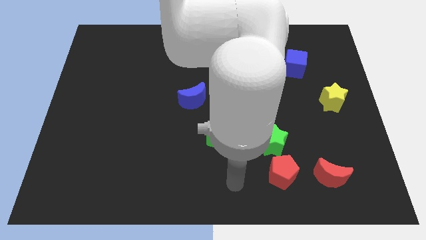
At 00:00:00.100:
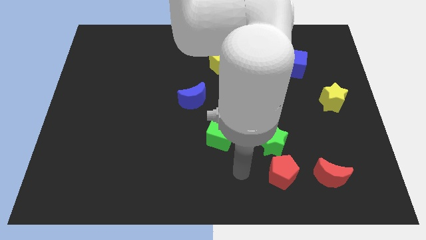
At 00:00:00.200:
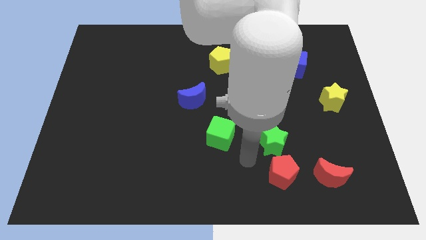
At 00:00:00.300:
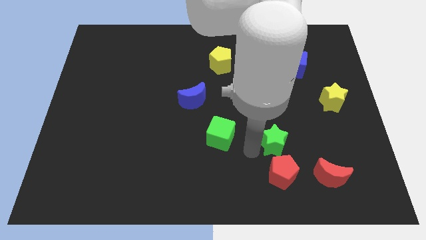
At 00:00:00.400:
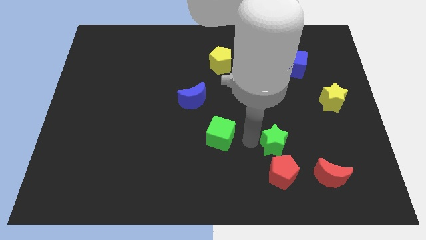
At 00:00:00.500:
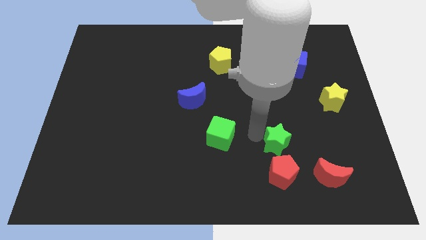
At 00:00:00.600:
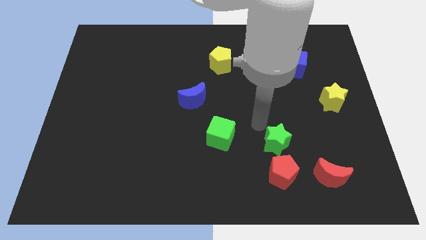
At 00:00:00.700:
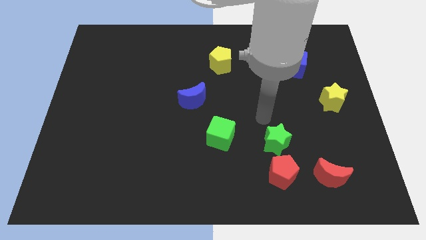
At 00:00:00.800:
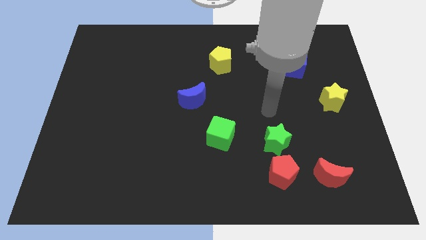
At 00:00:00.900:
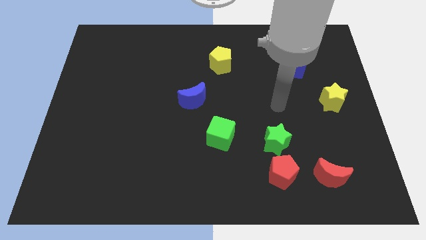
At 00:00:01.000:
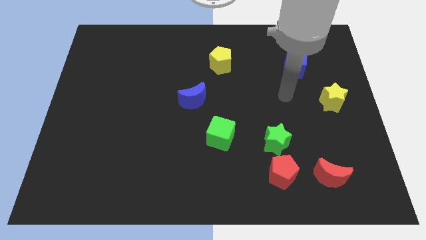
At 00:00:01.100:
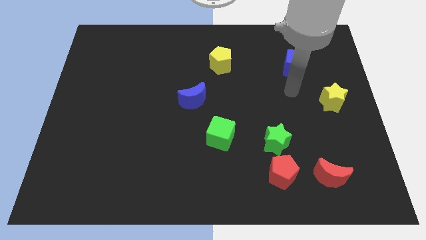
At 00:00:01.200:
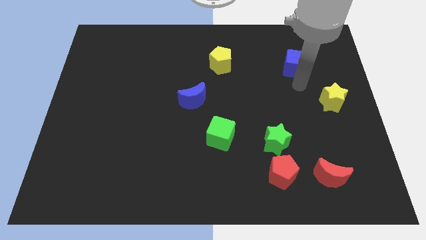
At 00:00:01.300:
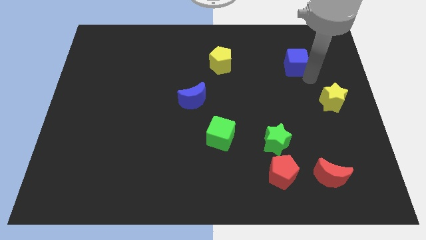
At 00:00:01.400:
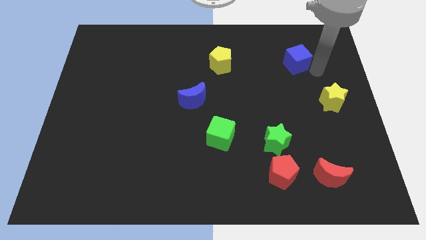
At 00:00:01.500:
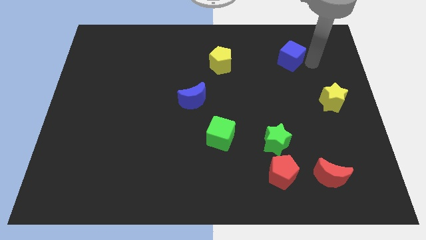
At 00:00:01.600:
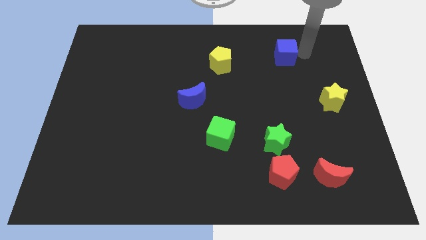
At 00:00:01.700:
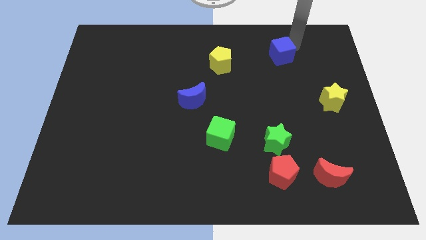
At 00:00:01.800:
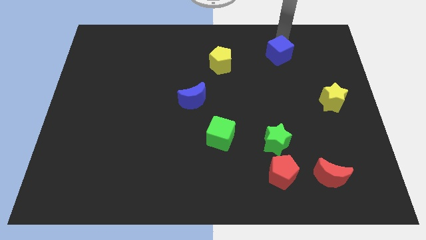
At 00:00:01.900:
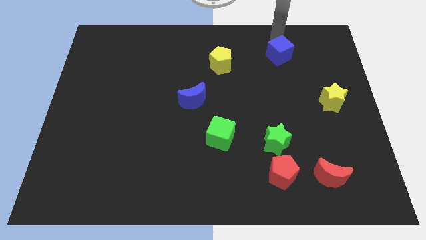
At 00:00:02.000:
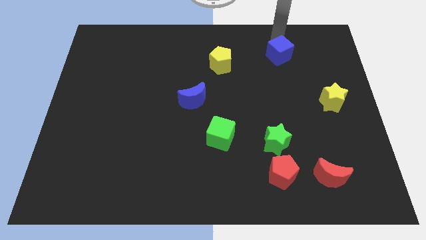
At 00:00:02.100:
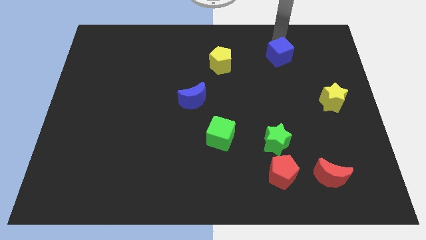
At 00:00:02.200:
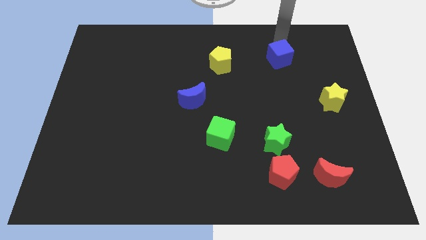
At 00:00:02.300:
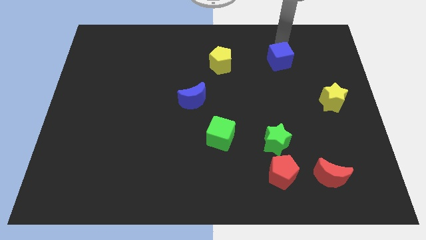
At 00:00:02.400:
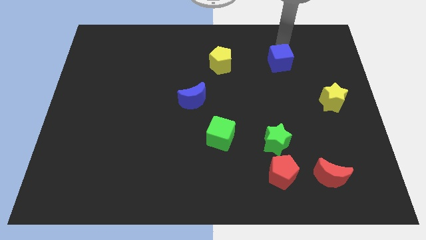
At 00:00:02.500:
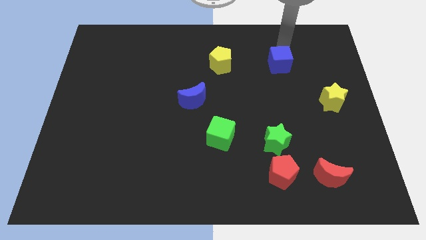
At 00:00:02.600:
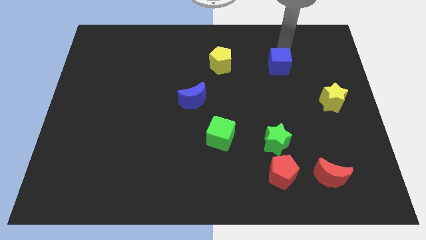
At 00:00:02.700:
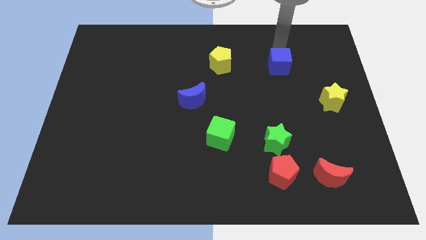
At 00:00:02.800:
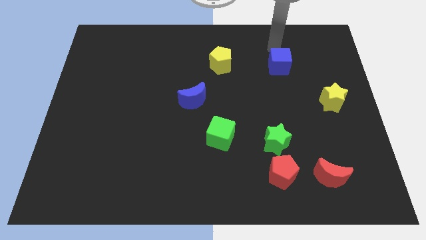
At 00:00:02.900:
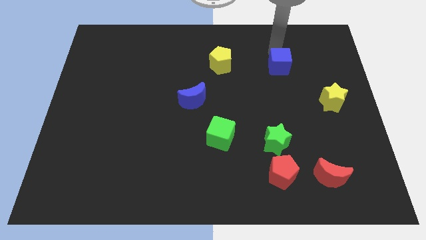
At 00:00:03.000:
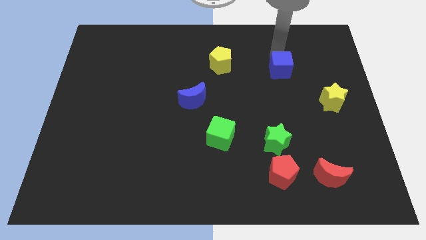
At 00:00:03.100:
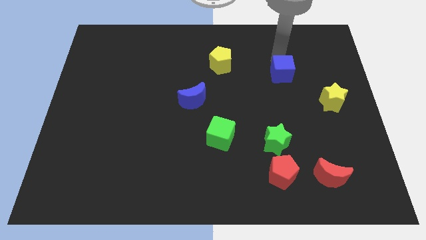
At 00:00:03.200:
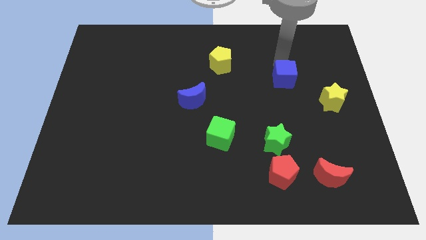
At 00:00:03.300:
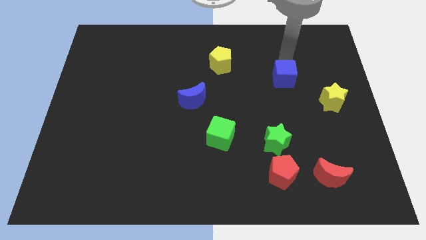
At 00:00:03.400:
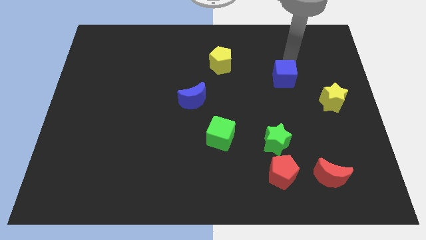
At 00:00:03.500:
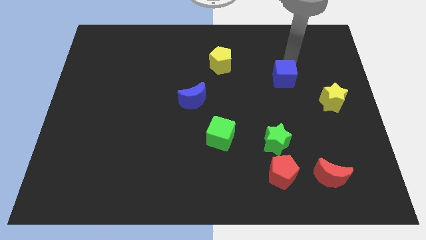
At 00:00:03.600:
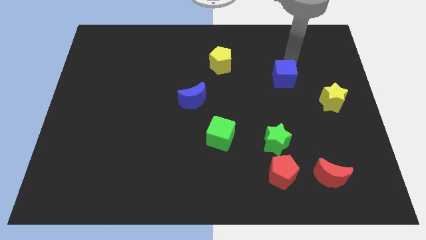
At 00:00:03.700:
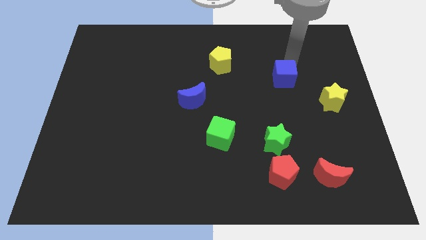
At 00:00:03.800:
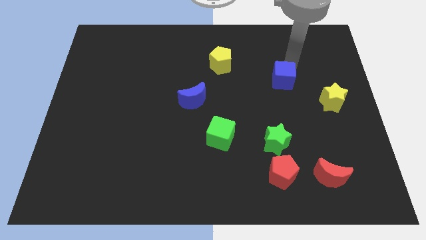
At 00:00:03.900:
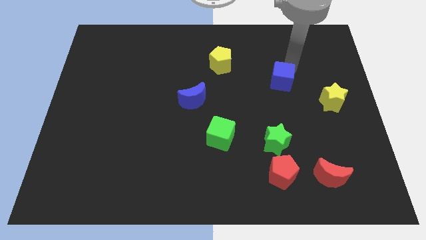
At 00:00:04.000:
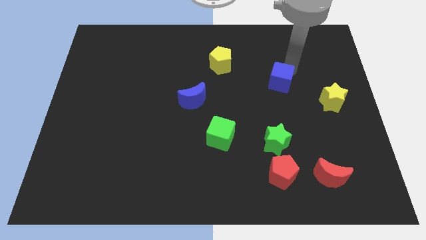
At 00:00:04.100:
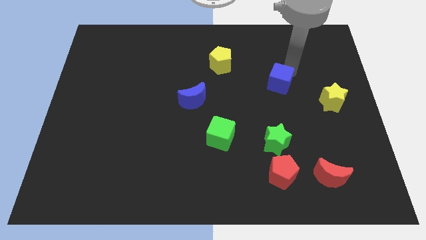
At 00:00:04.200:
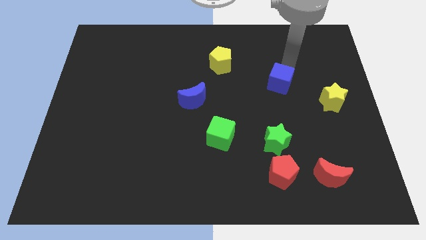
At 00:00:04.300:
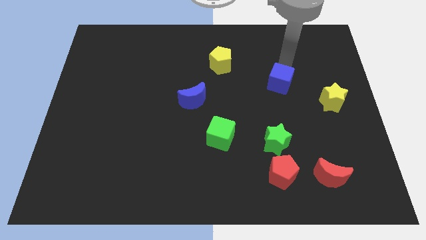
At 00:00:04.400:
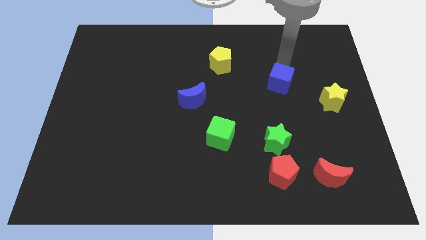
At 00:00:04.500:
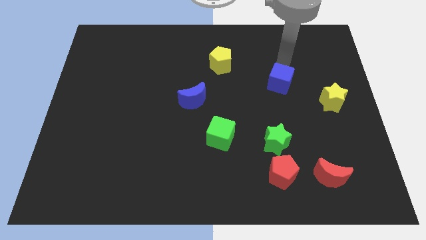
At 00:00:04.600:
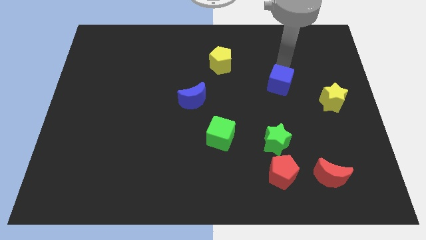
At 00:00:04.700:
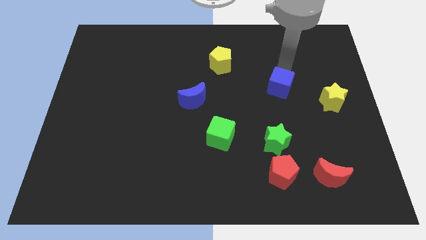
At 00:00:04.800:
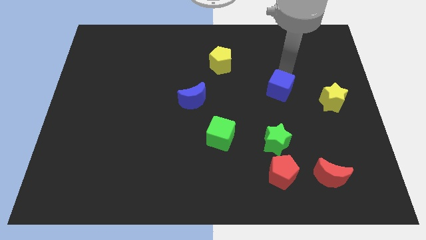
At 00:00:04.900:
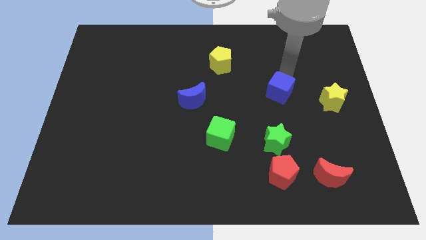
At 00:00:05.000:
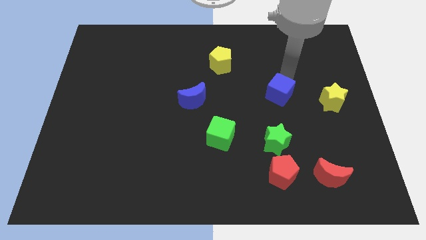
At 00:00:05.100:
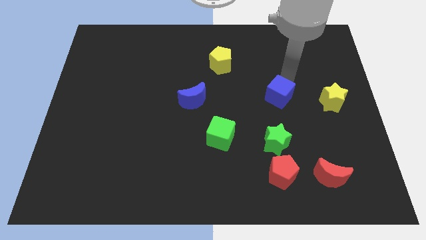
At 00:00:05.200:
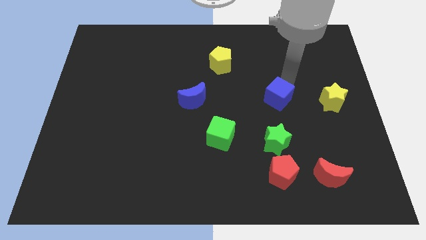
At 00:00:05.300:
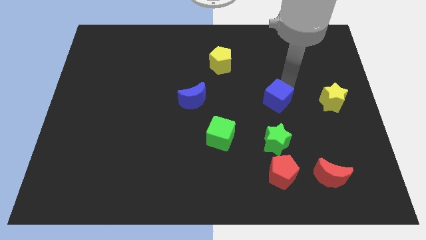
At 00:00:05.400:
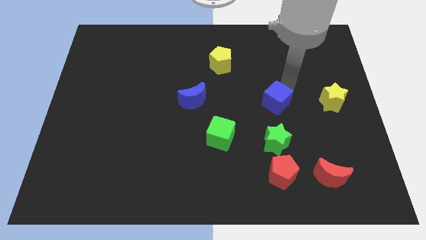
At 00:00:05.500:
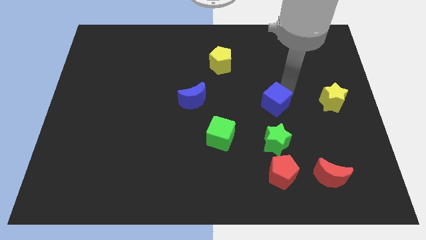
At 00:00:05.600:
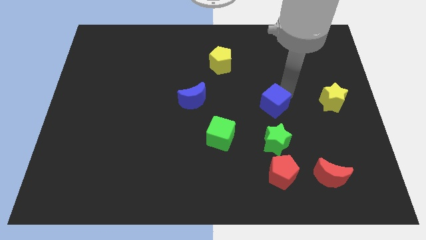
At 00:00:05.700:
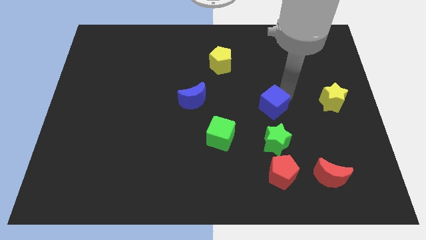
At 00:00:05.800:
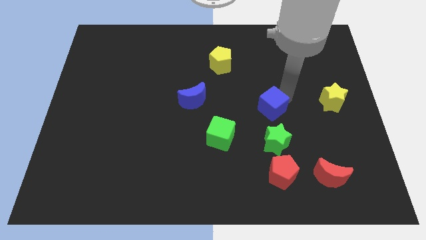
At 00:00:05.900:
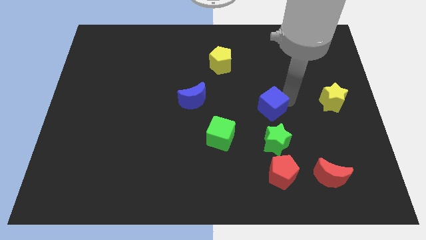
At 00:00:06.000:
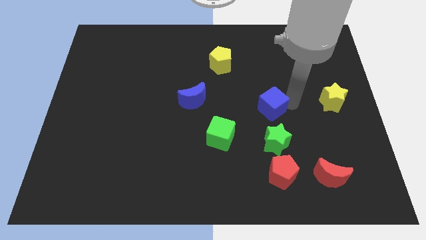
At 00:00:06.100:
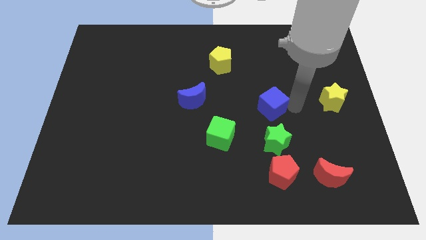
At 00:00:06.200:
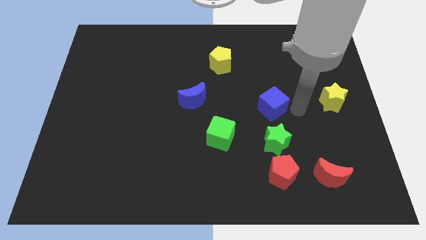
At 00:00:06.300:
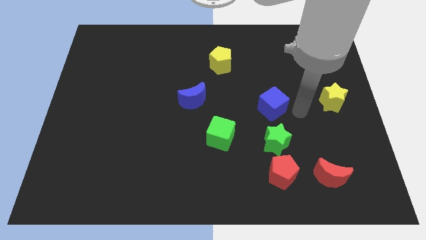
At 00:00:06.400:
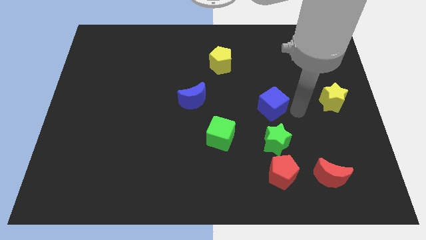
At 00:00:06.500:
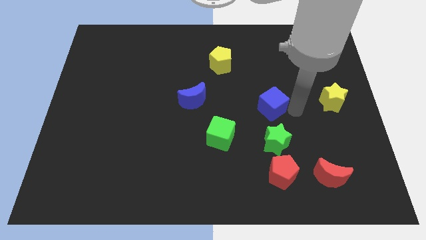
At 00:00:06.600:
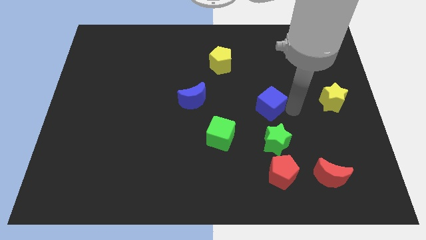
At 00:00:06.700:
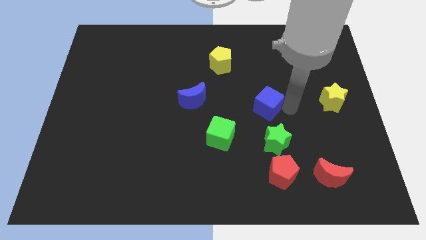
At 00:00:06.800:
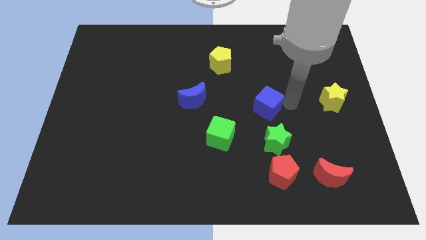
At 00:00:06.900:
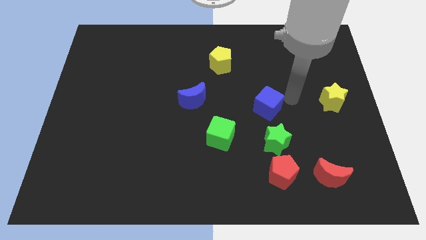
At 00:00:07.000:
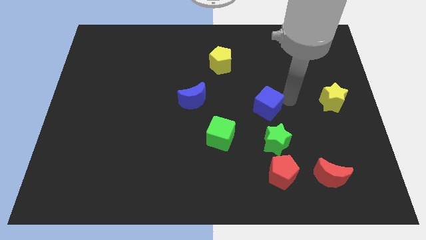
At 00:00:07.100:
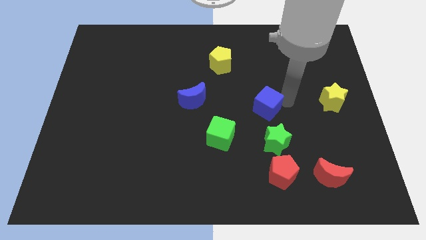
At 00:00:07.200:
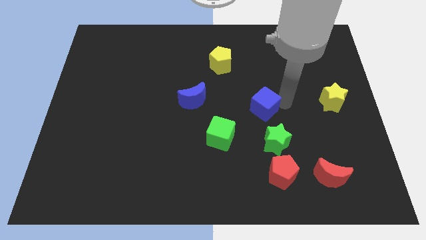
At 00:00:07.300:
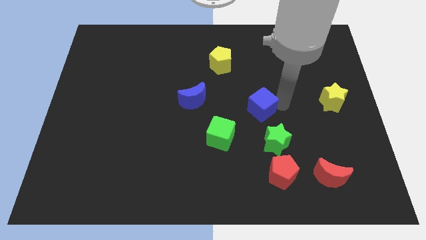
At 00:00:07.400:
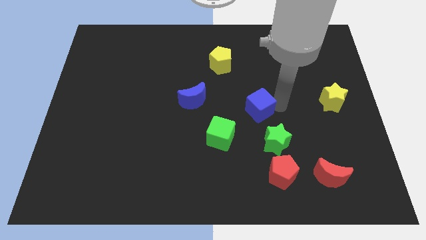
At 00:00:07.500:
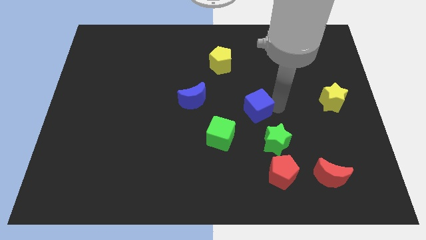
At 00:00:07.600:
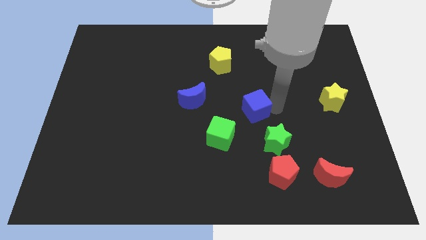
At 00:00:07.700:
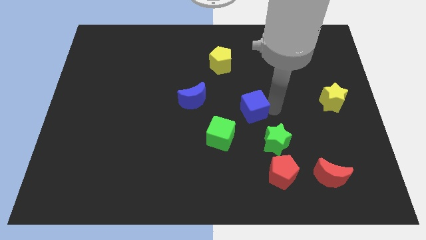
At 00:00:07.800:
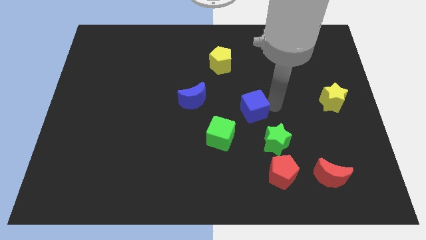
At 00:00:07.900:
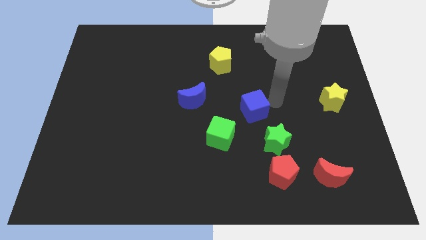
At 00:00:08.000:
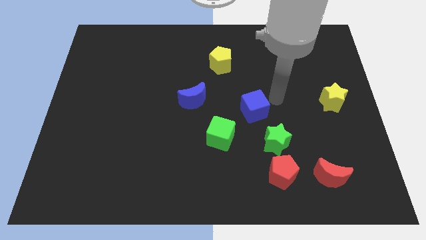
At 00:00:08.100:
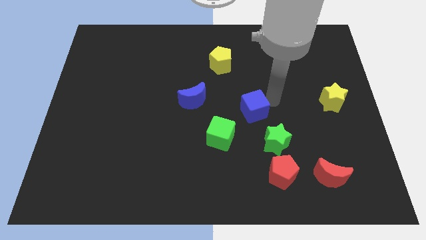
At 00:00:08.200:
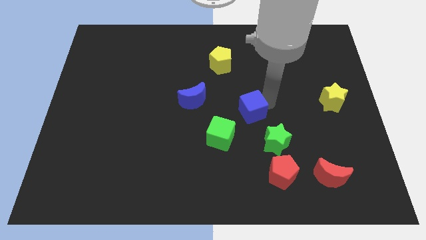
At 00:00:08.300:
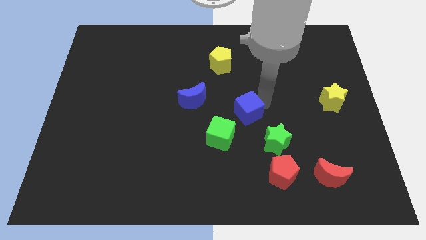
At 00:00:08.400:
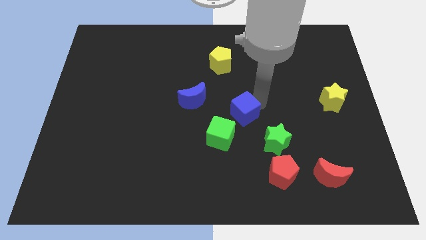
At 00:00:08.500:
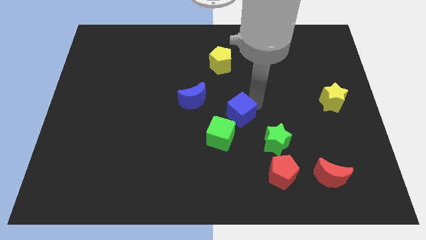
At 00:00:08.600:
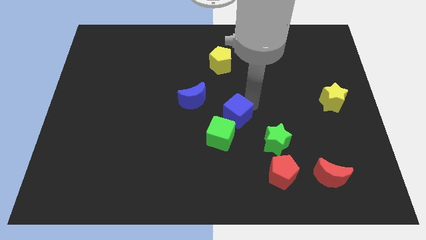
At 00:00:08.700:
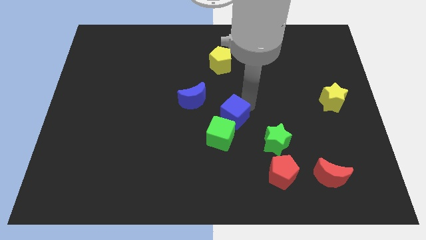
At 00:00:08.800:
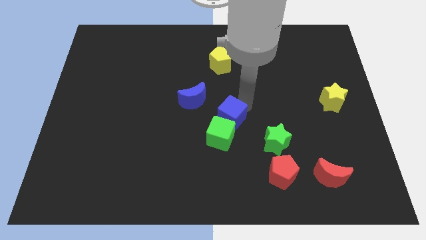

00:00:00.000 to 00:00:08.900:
push the blue cube close to the green cube
